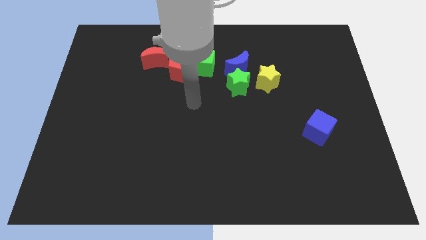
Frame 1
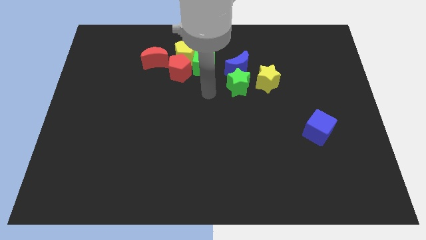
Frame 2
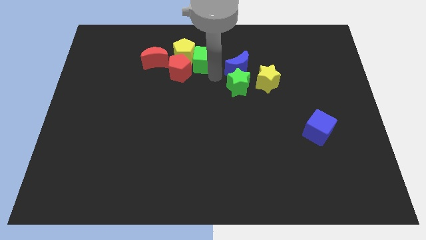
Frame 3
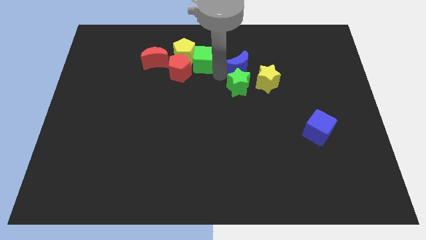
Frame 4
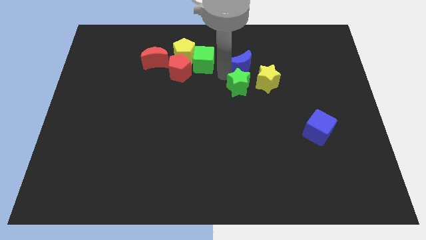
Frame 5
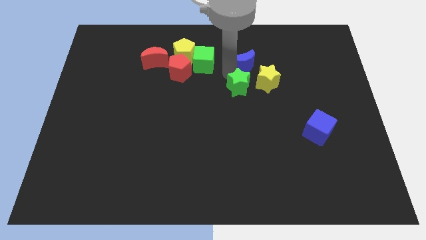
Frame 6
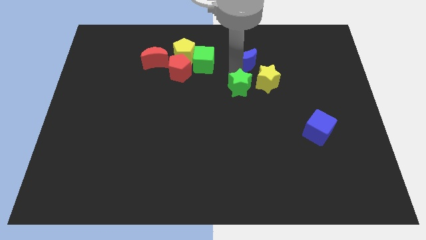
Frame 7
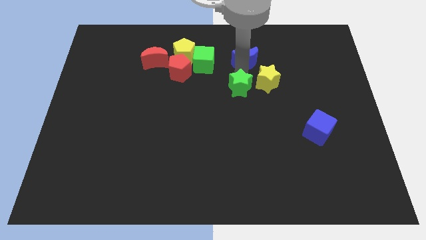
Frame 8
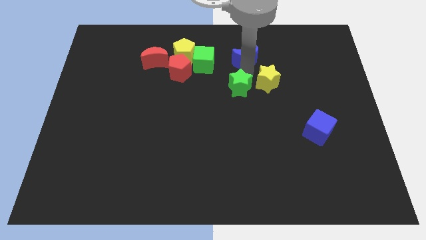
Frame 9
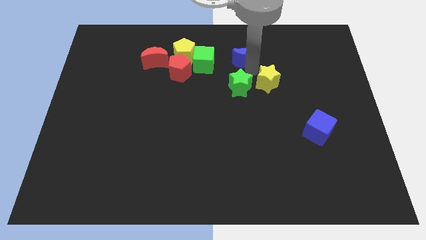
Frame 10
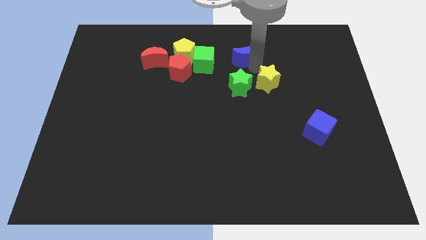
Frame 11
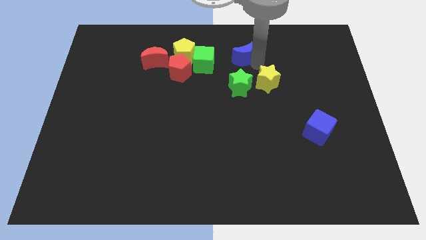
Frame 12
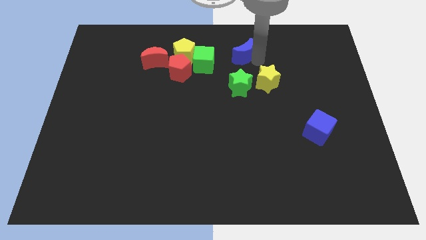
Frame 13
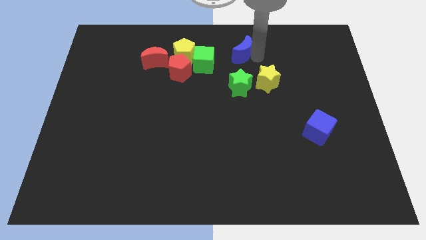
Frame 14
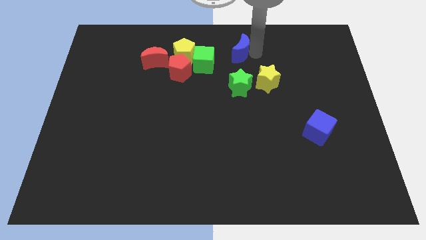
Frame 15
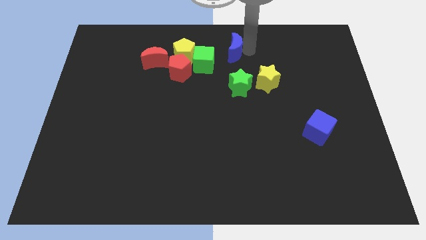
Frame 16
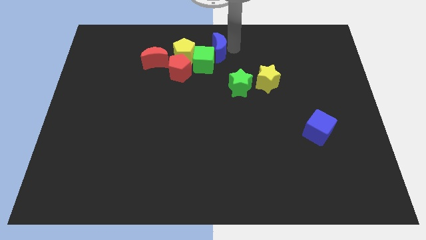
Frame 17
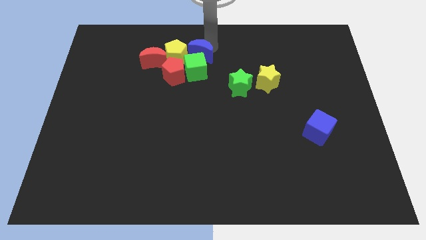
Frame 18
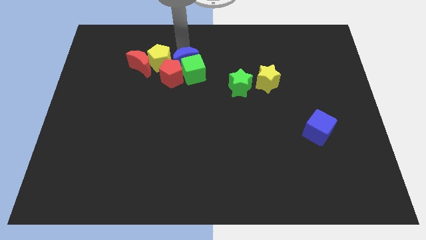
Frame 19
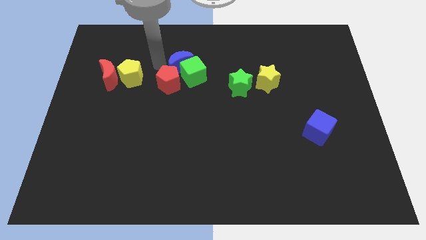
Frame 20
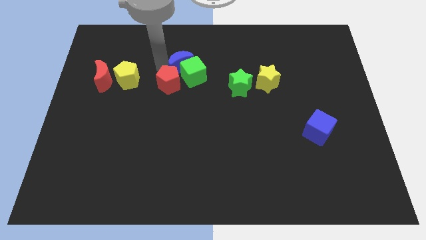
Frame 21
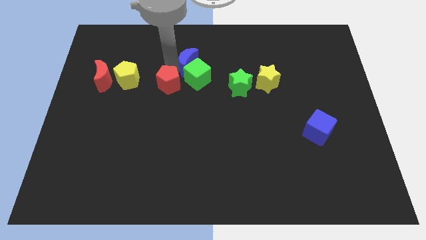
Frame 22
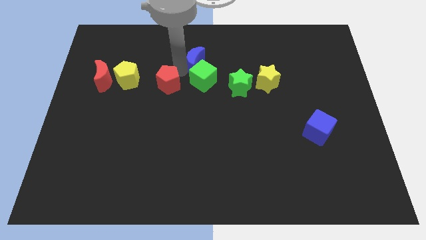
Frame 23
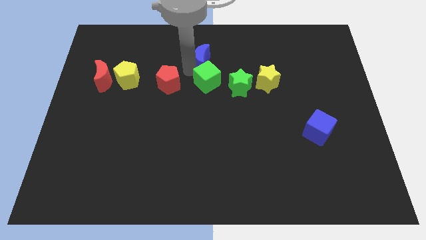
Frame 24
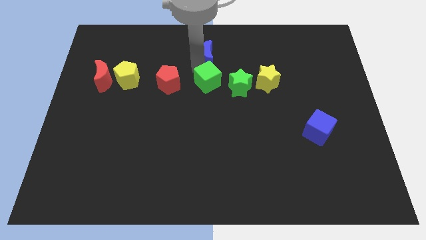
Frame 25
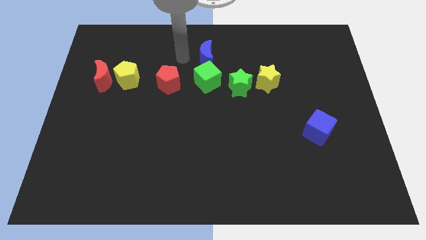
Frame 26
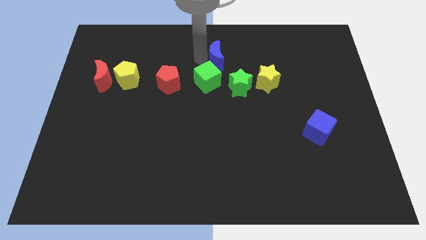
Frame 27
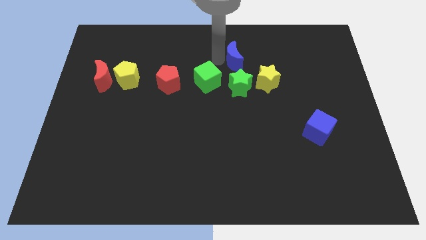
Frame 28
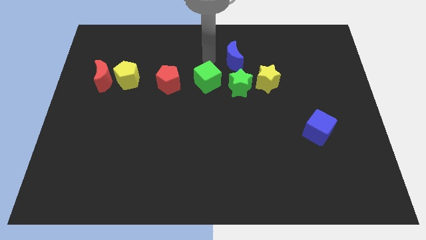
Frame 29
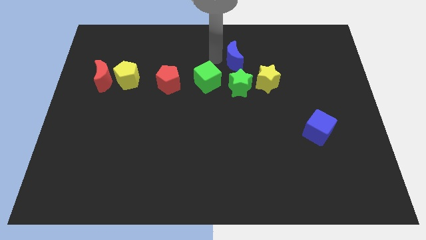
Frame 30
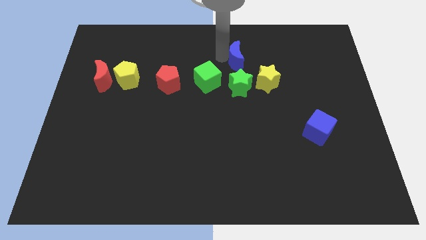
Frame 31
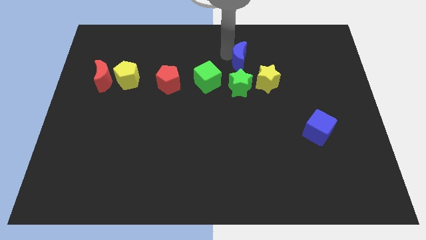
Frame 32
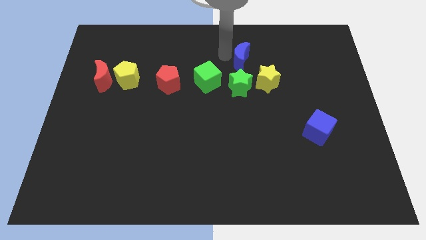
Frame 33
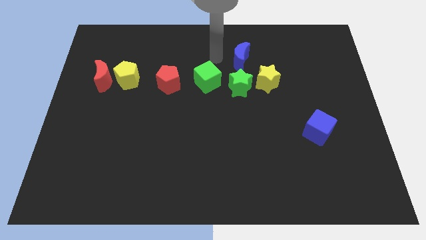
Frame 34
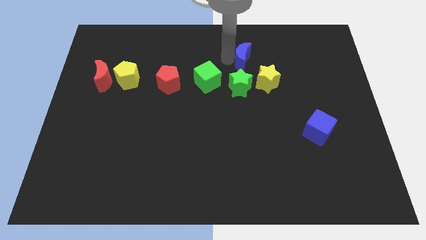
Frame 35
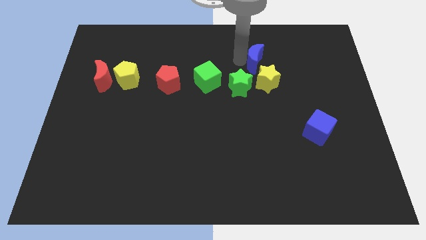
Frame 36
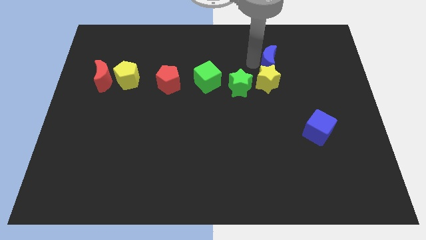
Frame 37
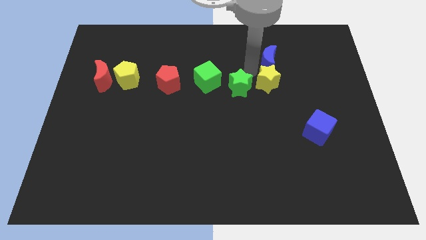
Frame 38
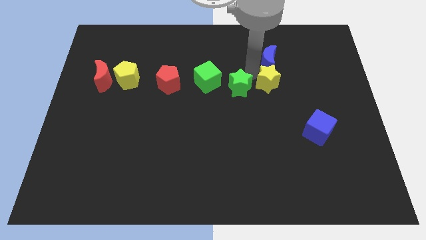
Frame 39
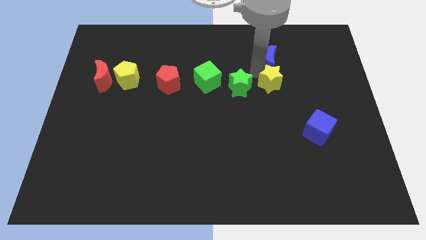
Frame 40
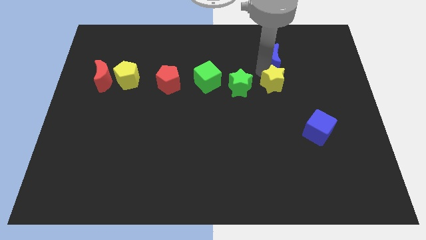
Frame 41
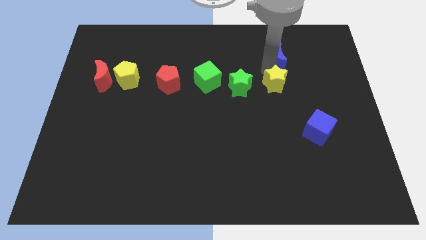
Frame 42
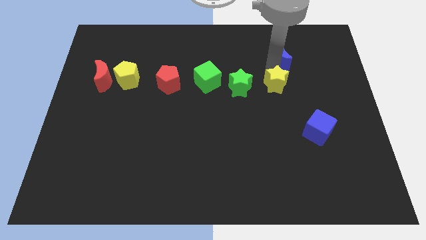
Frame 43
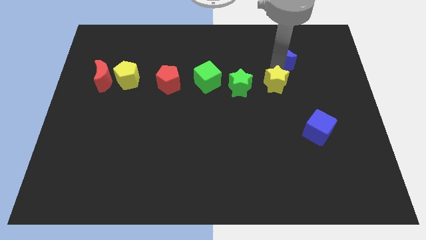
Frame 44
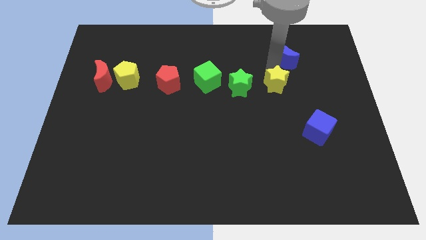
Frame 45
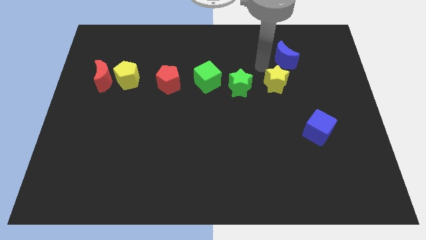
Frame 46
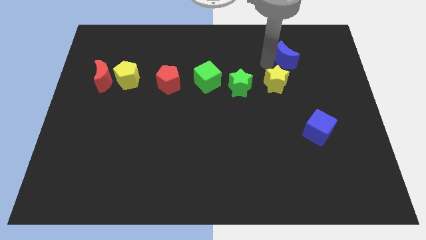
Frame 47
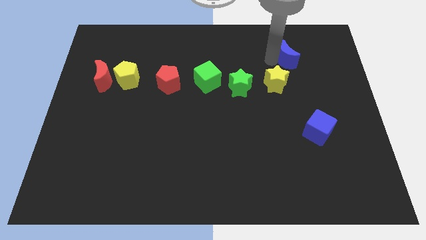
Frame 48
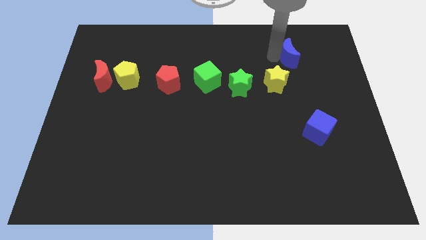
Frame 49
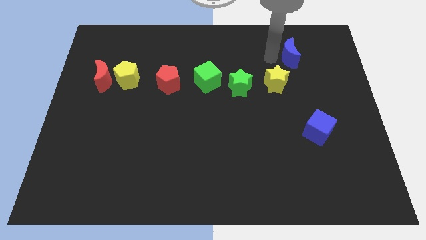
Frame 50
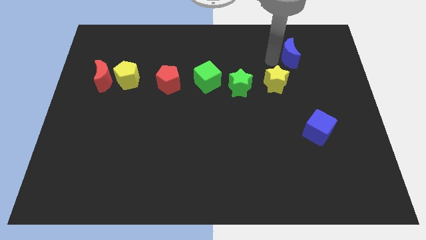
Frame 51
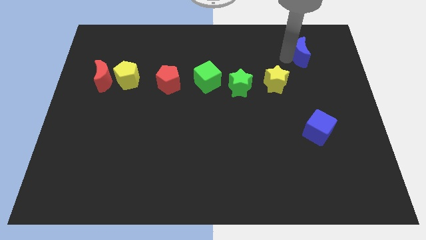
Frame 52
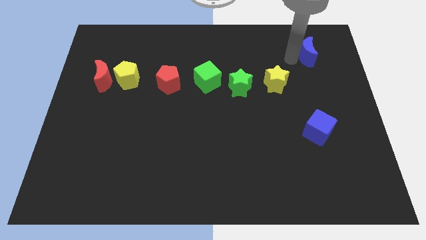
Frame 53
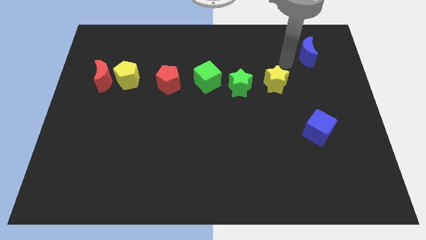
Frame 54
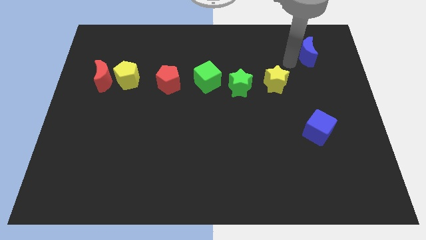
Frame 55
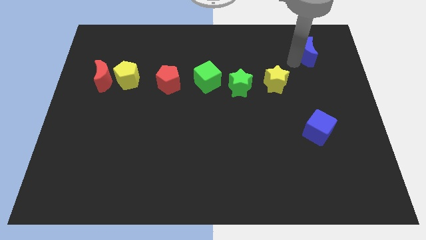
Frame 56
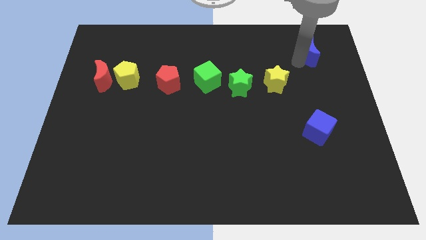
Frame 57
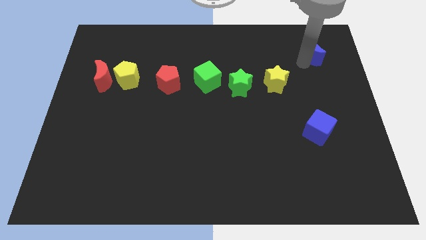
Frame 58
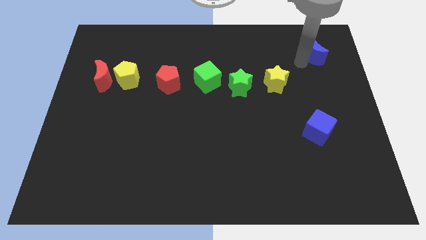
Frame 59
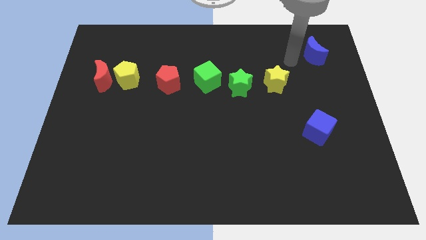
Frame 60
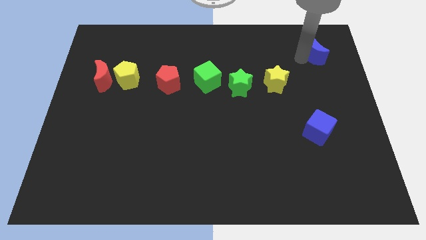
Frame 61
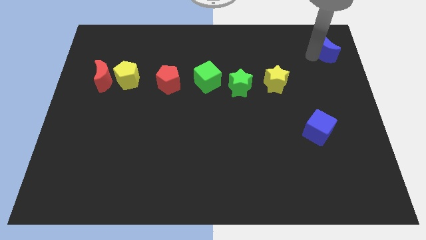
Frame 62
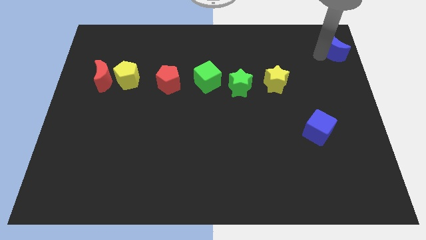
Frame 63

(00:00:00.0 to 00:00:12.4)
move the blue moon to the top right corner
